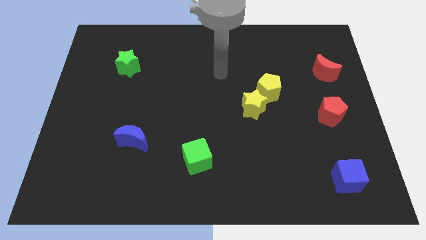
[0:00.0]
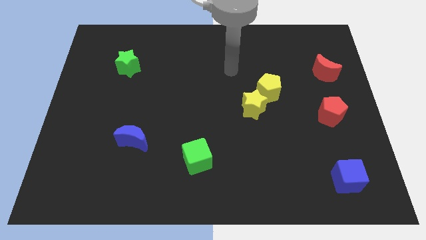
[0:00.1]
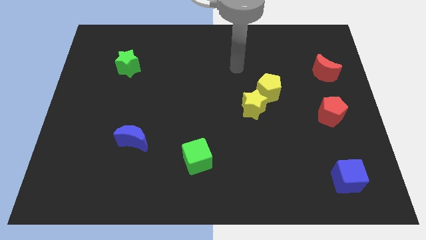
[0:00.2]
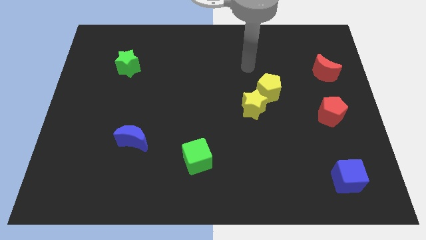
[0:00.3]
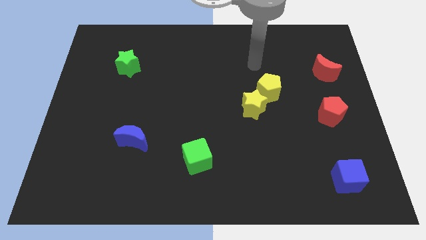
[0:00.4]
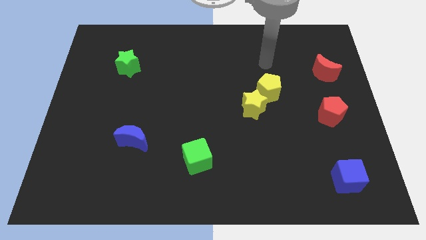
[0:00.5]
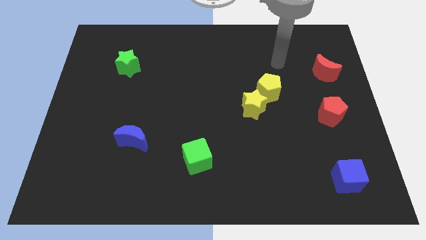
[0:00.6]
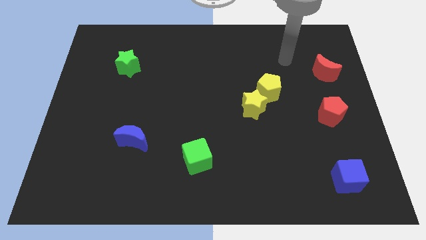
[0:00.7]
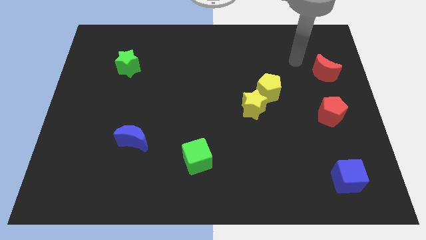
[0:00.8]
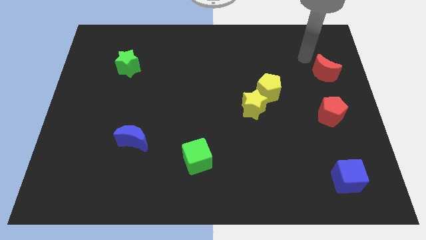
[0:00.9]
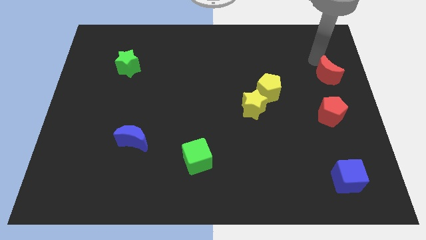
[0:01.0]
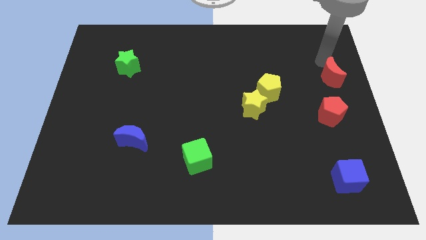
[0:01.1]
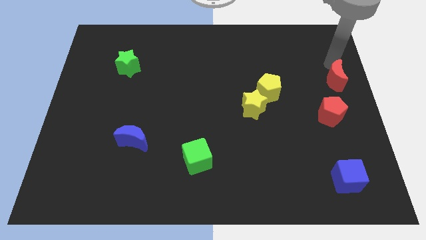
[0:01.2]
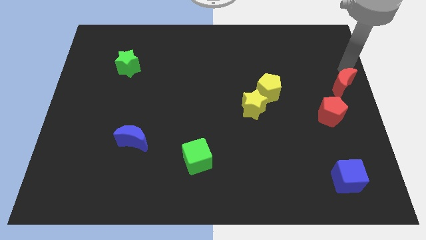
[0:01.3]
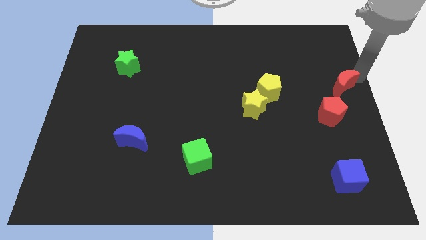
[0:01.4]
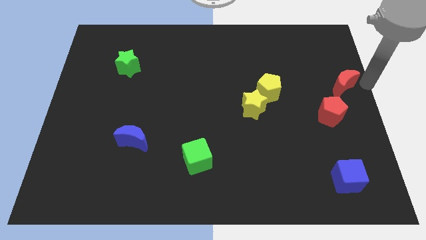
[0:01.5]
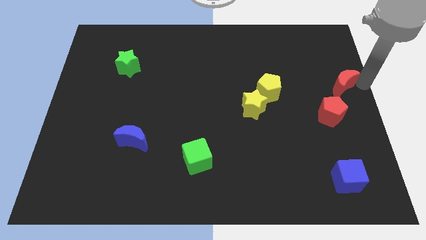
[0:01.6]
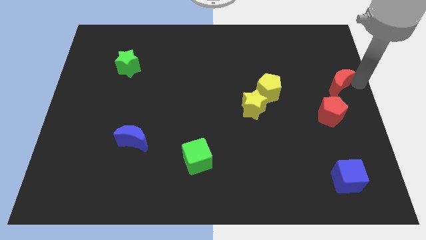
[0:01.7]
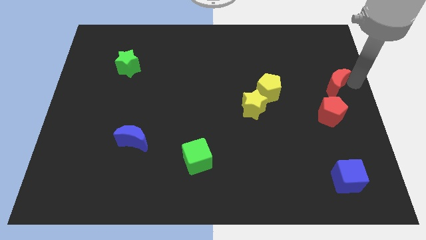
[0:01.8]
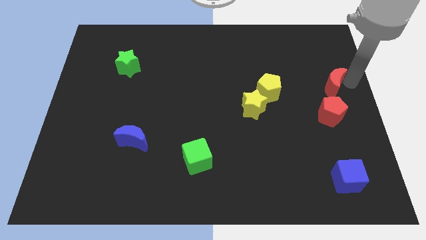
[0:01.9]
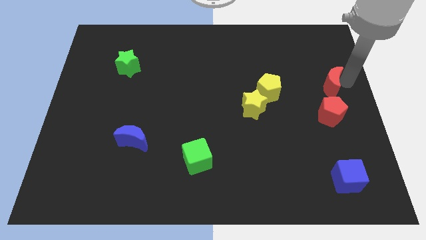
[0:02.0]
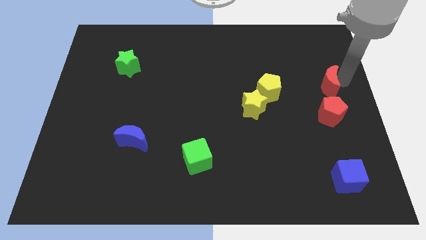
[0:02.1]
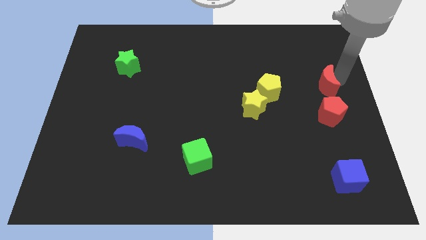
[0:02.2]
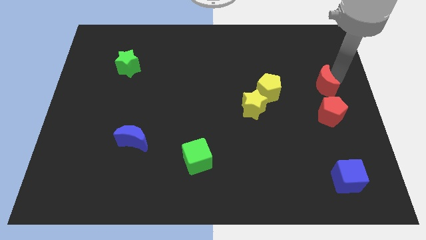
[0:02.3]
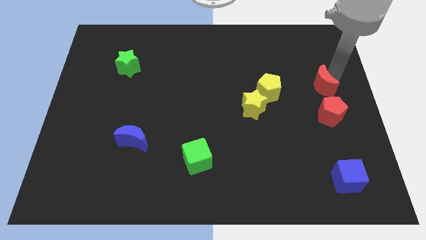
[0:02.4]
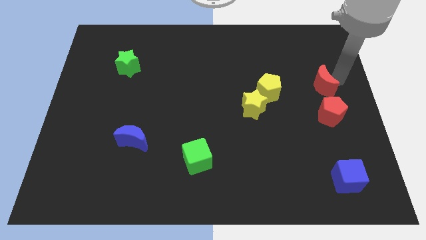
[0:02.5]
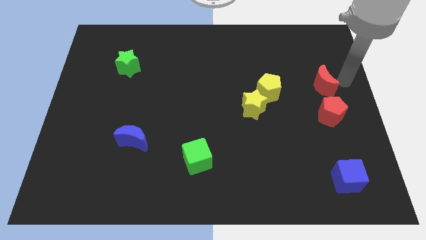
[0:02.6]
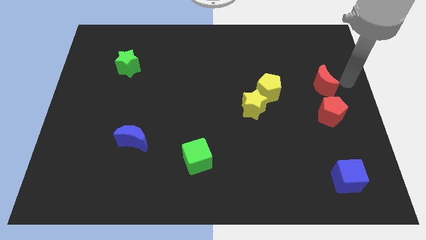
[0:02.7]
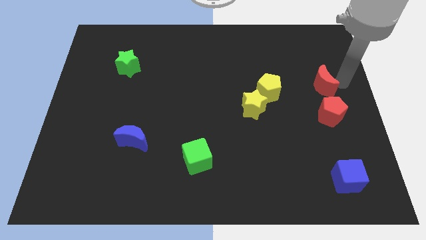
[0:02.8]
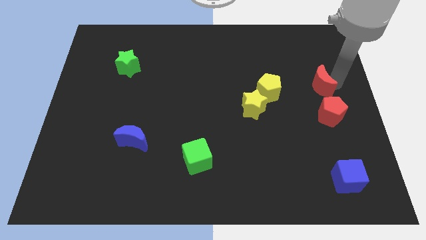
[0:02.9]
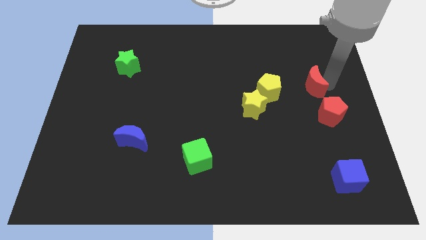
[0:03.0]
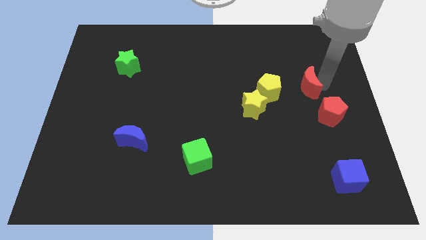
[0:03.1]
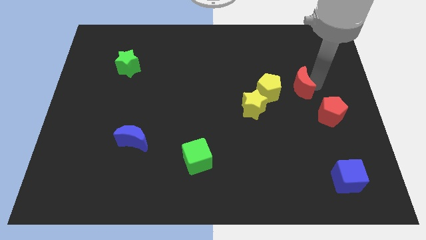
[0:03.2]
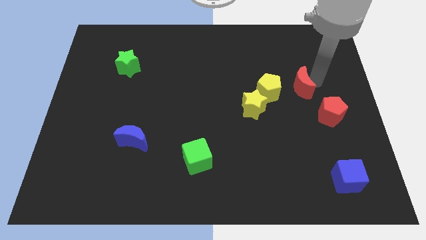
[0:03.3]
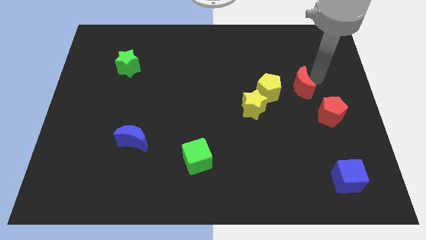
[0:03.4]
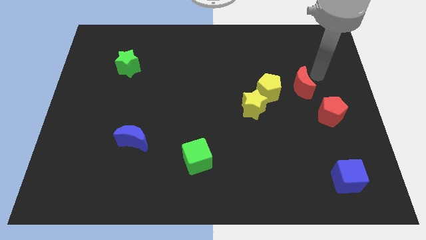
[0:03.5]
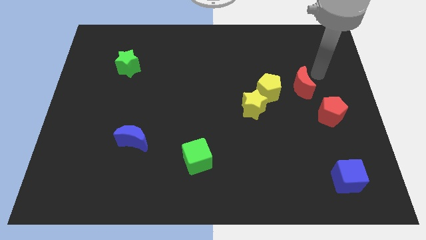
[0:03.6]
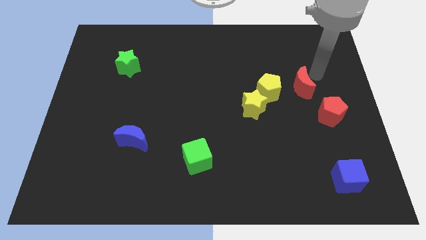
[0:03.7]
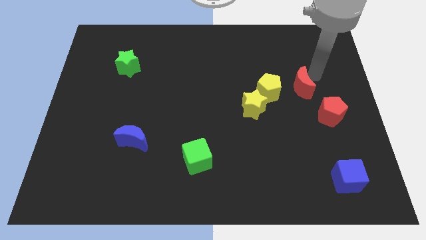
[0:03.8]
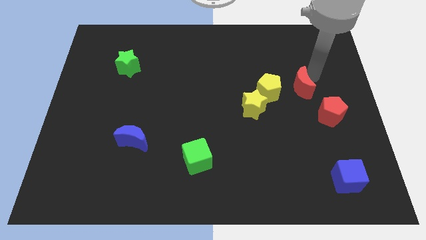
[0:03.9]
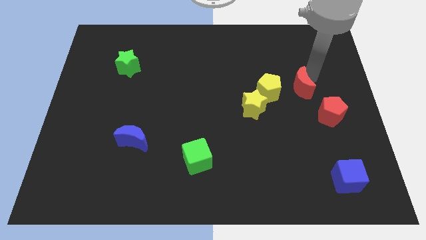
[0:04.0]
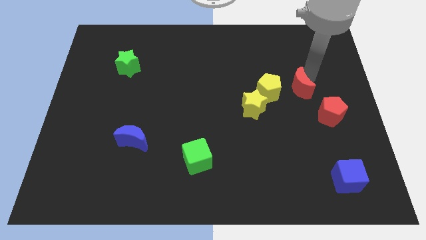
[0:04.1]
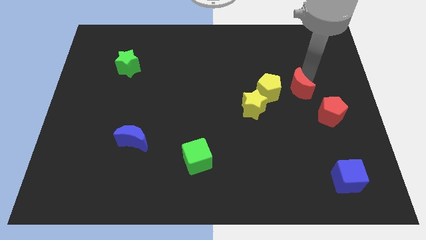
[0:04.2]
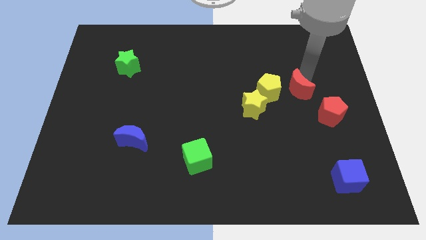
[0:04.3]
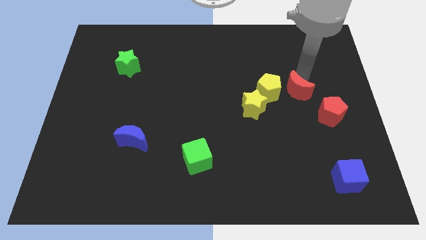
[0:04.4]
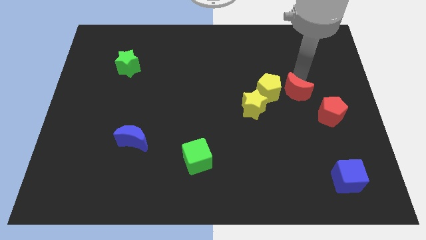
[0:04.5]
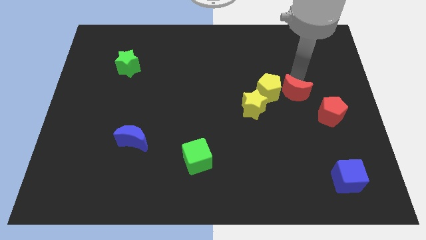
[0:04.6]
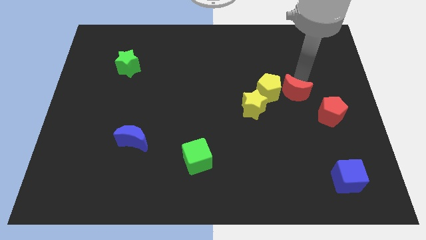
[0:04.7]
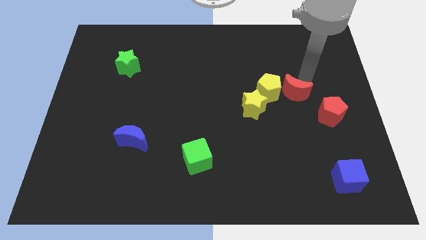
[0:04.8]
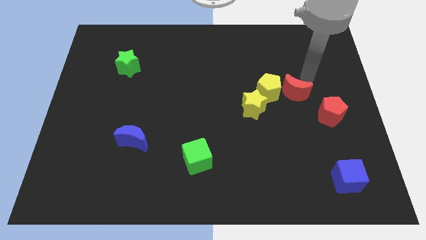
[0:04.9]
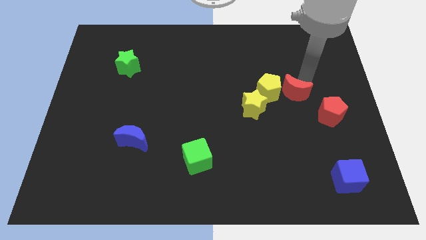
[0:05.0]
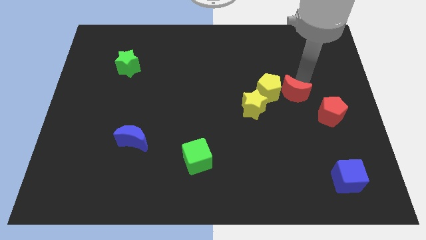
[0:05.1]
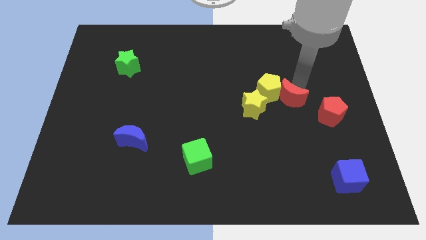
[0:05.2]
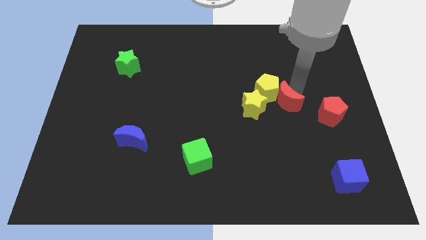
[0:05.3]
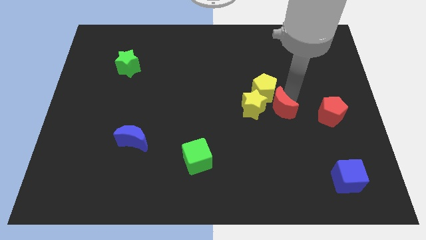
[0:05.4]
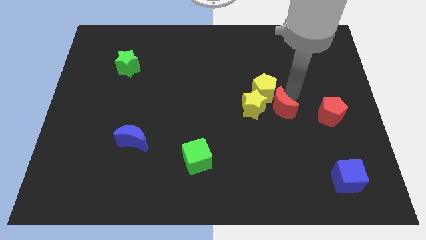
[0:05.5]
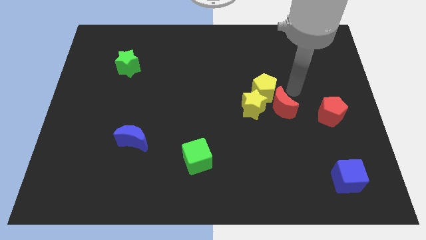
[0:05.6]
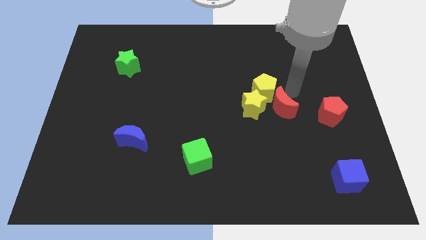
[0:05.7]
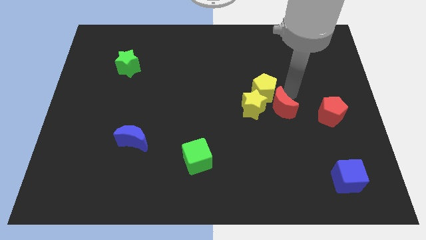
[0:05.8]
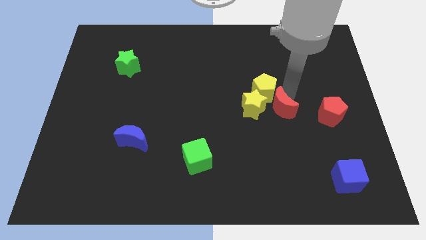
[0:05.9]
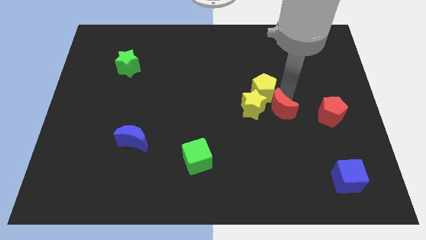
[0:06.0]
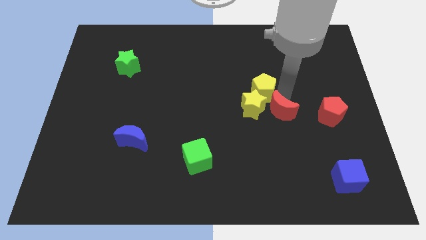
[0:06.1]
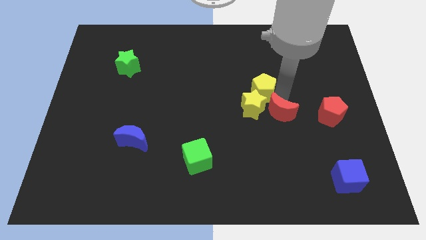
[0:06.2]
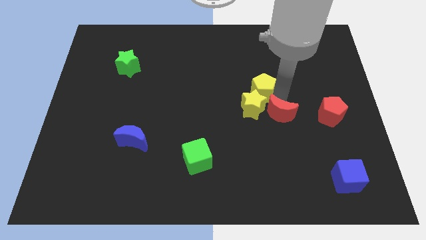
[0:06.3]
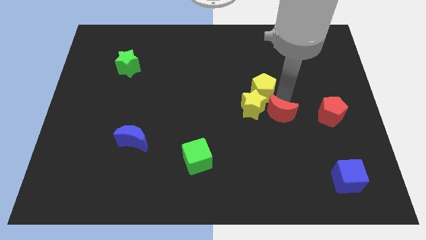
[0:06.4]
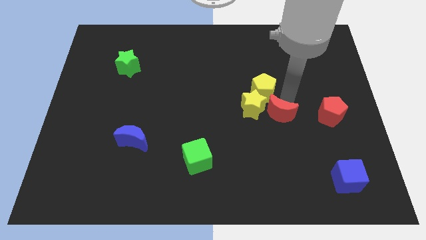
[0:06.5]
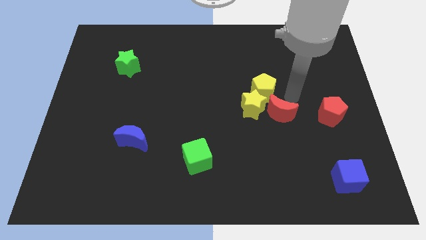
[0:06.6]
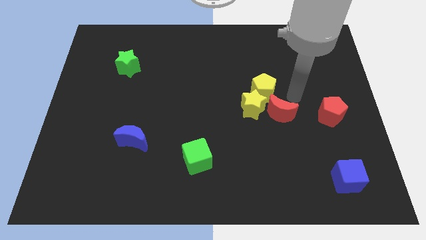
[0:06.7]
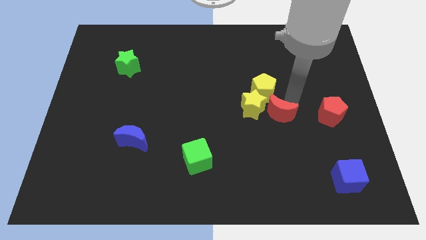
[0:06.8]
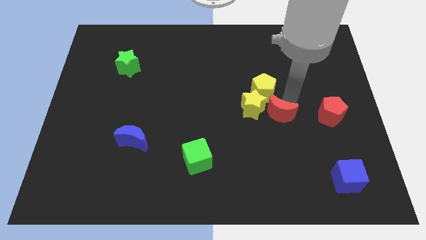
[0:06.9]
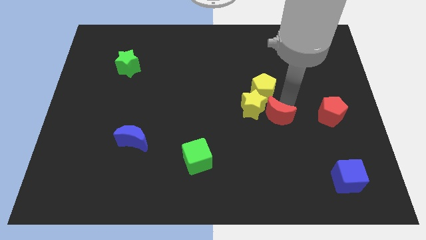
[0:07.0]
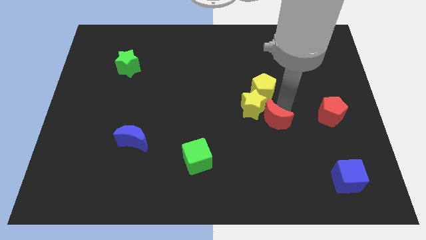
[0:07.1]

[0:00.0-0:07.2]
move the red moon down and to the left diagonally

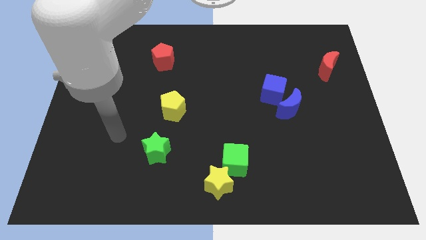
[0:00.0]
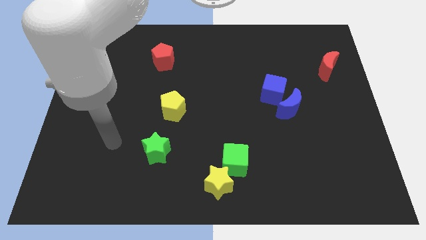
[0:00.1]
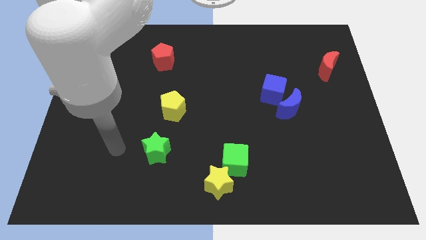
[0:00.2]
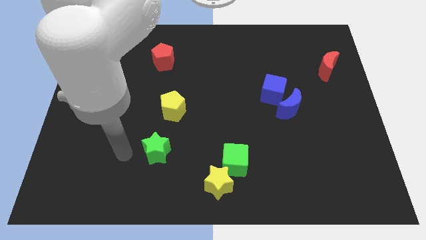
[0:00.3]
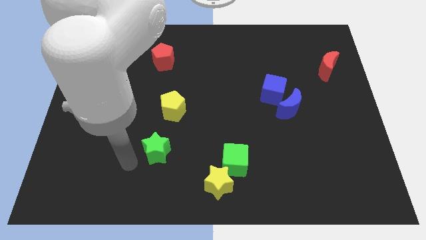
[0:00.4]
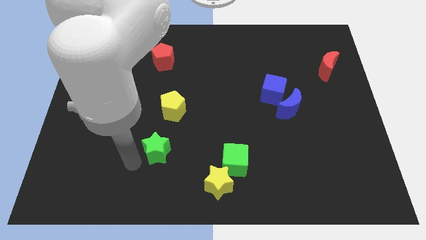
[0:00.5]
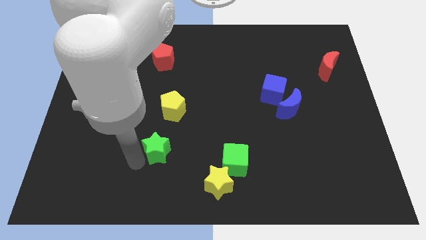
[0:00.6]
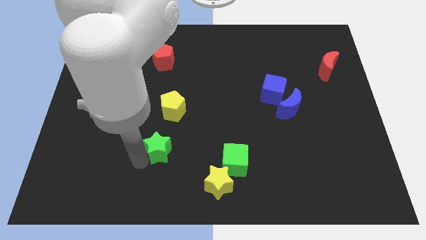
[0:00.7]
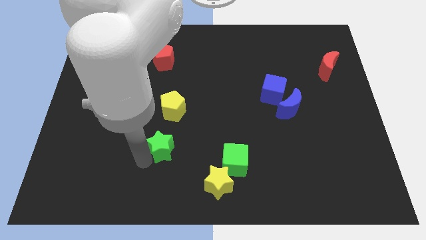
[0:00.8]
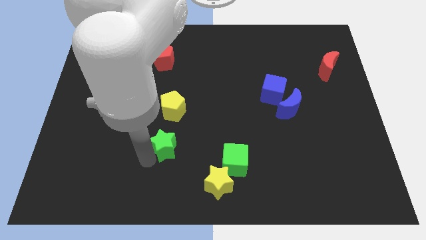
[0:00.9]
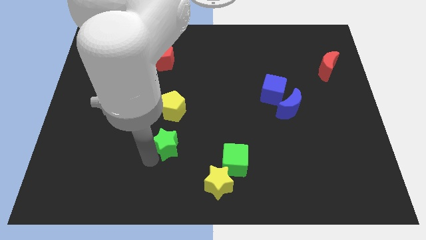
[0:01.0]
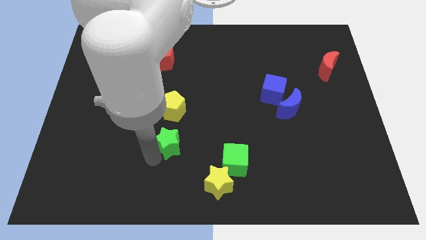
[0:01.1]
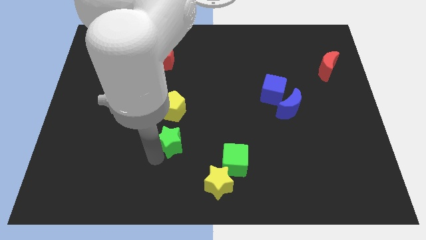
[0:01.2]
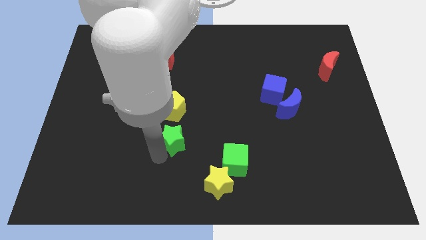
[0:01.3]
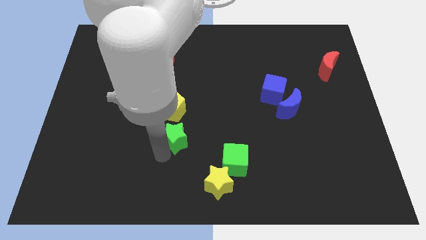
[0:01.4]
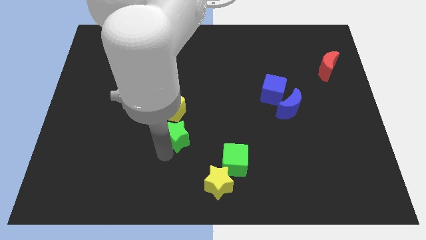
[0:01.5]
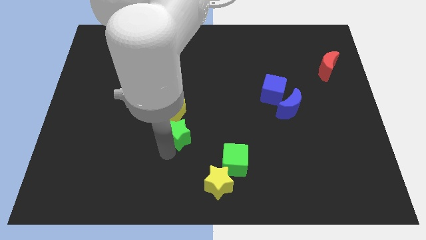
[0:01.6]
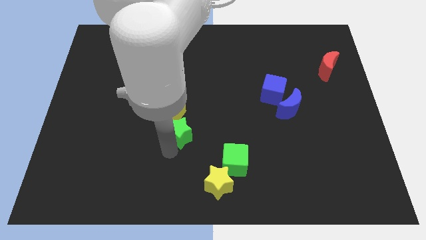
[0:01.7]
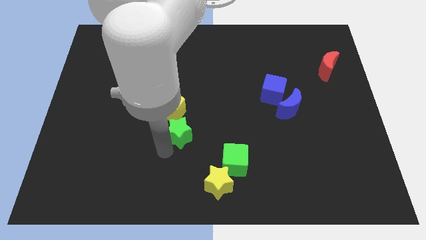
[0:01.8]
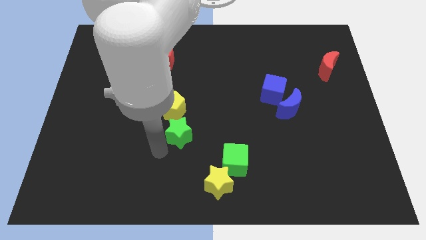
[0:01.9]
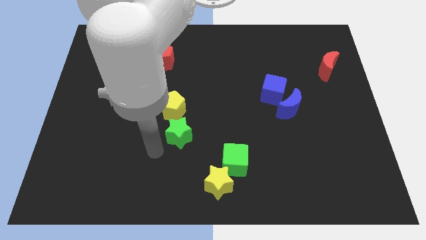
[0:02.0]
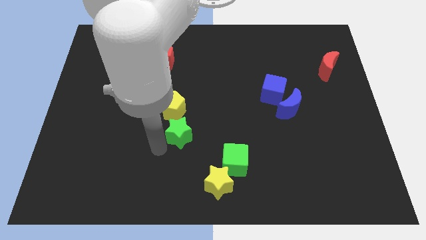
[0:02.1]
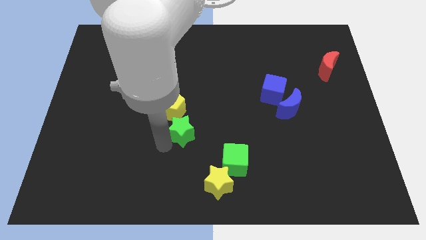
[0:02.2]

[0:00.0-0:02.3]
move the green star a little upwards and right
